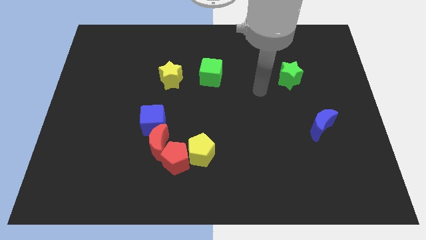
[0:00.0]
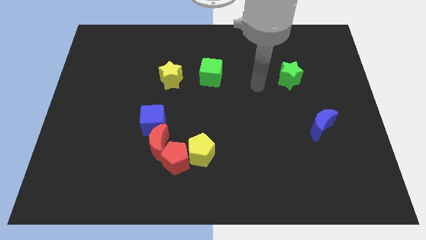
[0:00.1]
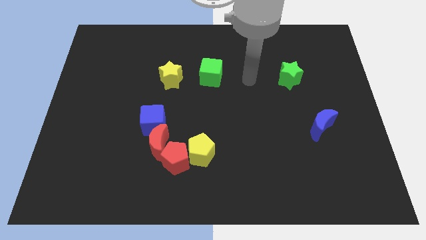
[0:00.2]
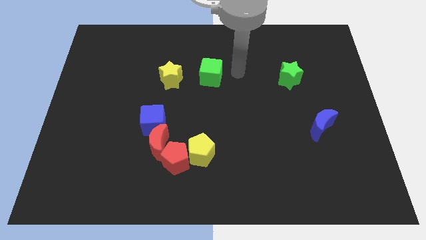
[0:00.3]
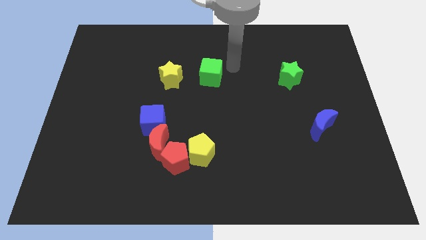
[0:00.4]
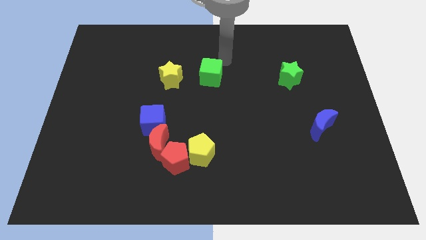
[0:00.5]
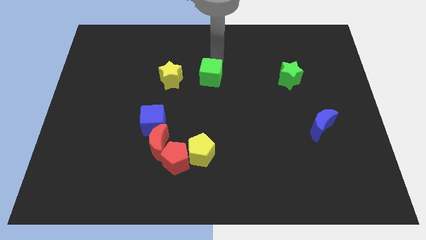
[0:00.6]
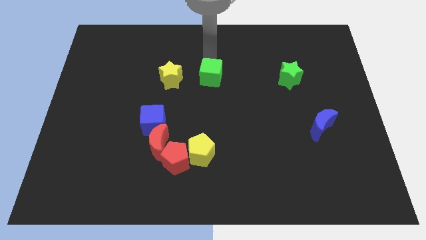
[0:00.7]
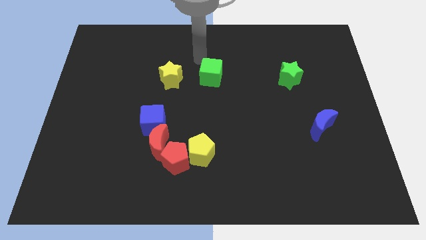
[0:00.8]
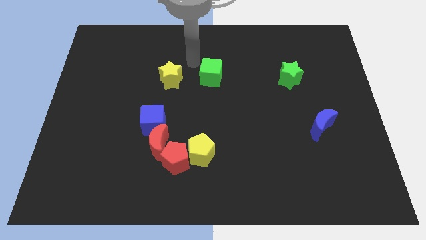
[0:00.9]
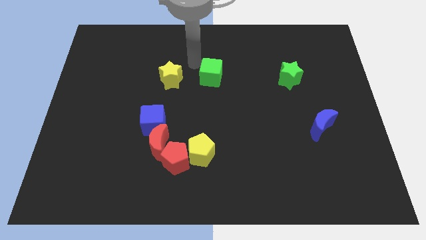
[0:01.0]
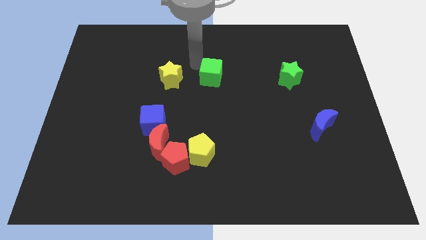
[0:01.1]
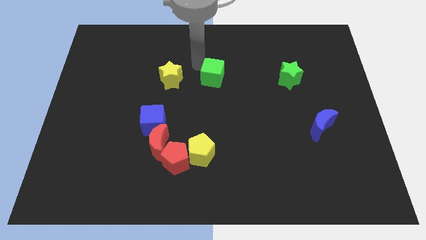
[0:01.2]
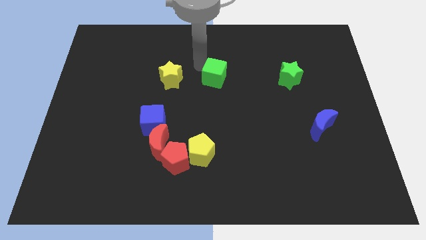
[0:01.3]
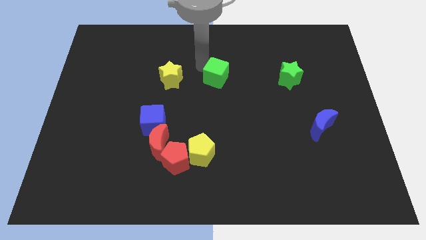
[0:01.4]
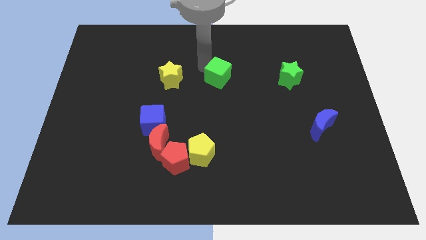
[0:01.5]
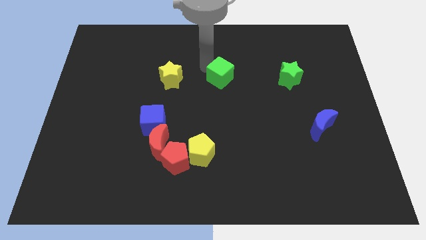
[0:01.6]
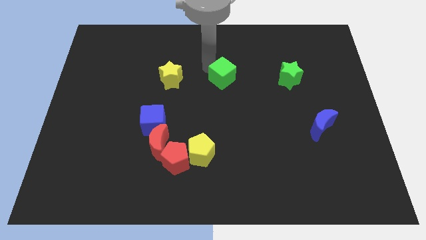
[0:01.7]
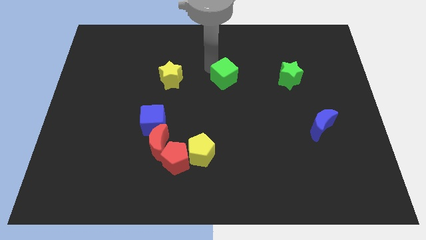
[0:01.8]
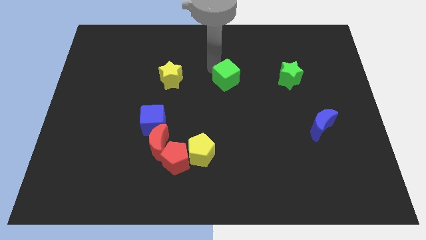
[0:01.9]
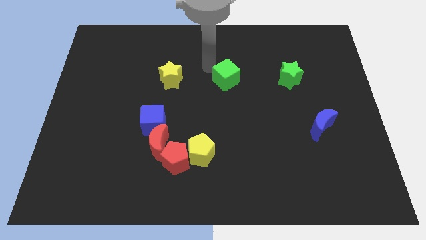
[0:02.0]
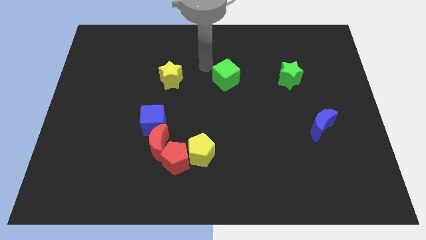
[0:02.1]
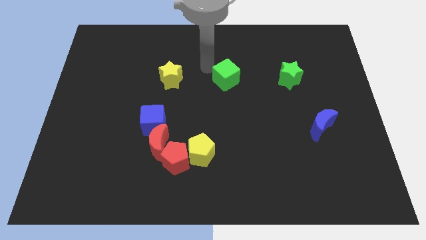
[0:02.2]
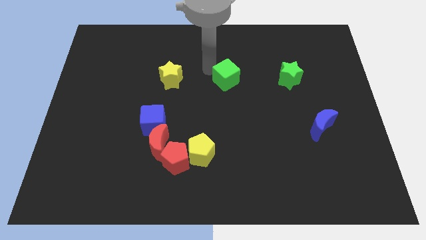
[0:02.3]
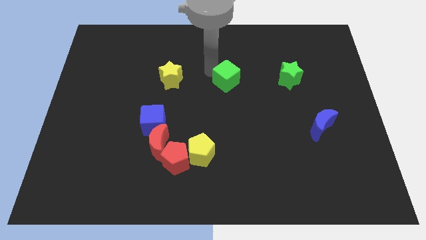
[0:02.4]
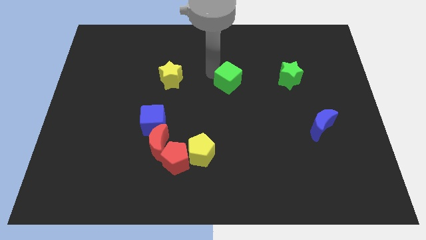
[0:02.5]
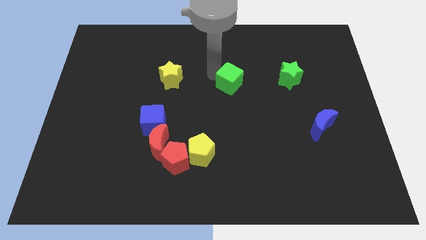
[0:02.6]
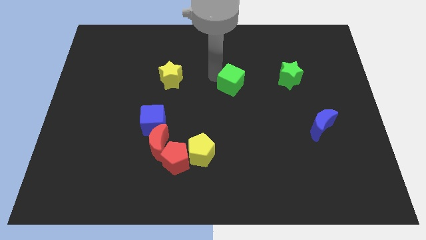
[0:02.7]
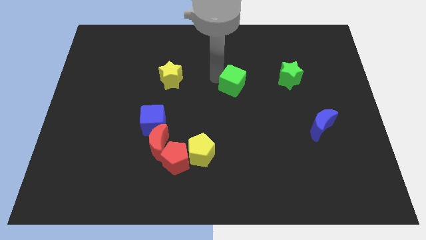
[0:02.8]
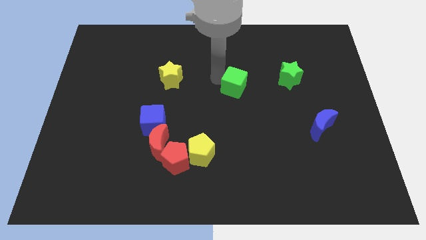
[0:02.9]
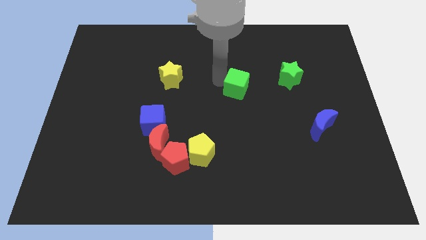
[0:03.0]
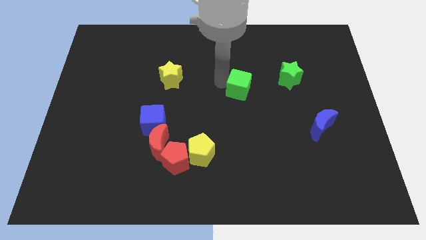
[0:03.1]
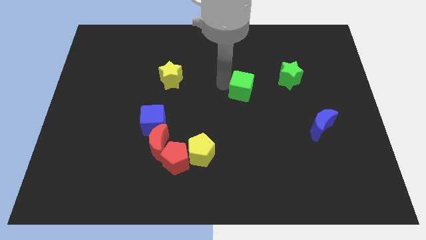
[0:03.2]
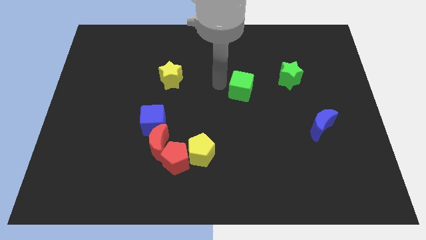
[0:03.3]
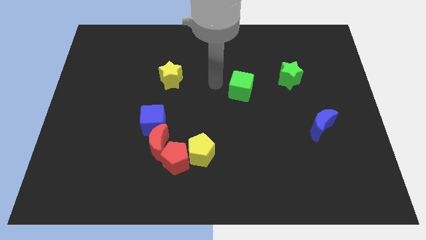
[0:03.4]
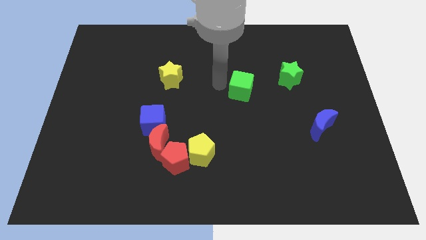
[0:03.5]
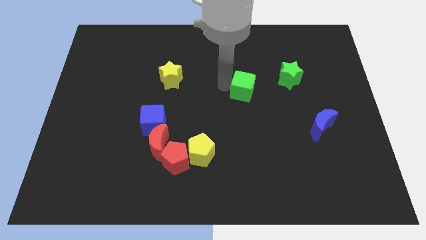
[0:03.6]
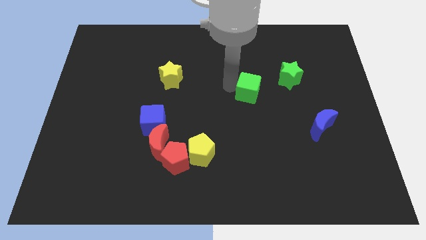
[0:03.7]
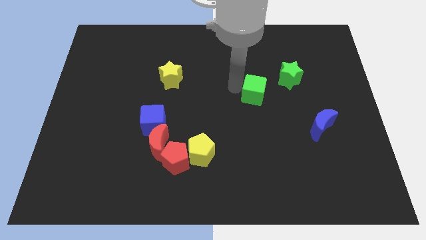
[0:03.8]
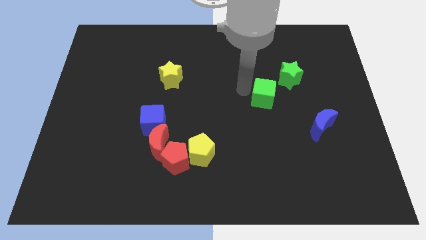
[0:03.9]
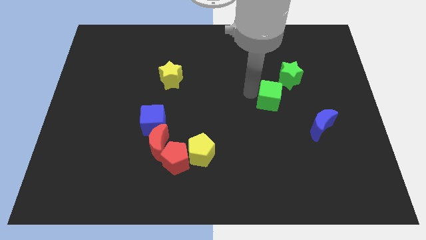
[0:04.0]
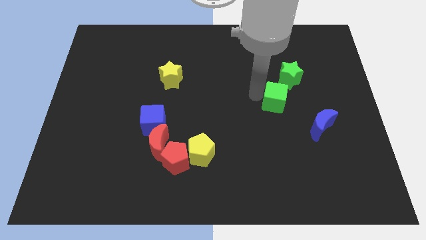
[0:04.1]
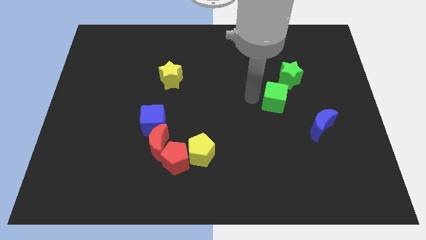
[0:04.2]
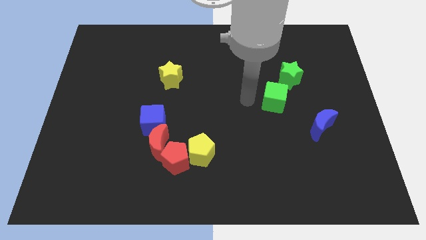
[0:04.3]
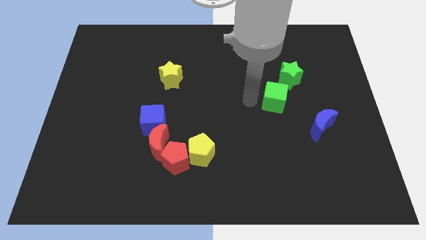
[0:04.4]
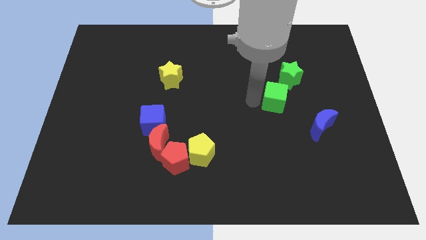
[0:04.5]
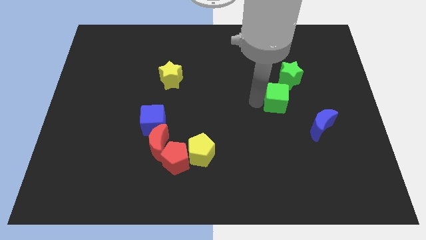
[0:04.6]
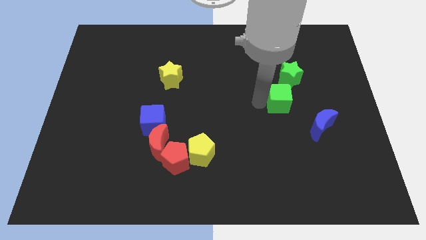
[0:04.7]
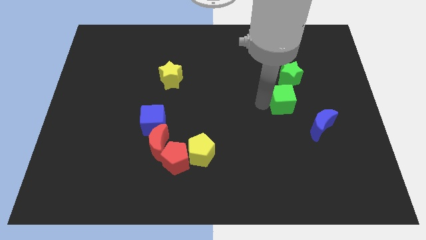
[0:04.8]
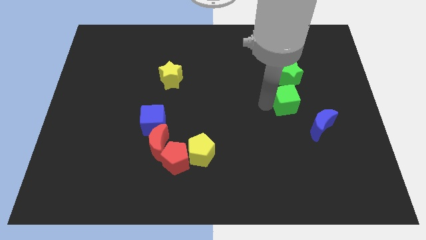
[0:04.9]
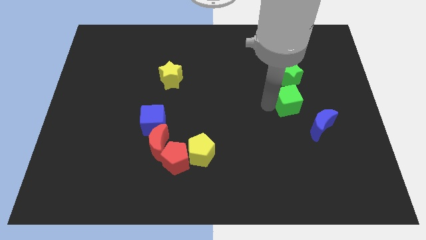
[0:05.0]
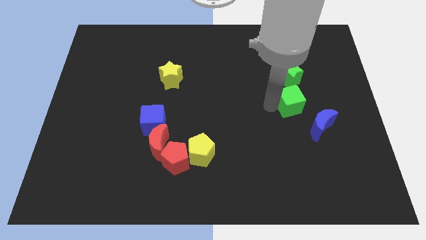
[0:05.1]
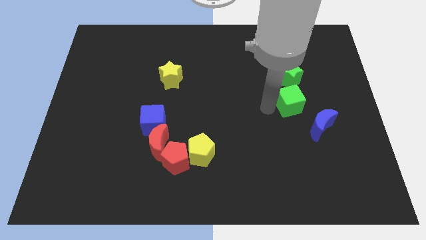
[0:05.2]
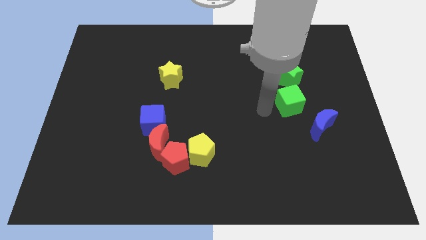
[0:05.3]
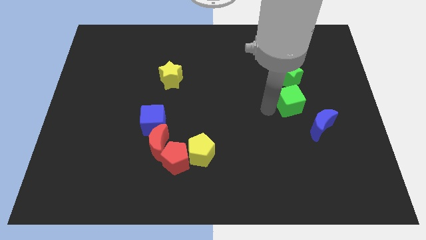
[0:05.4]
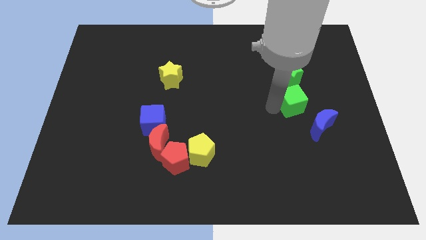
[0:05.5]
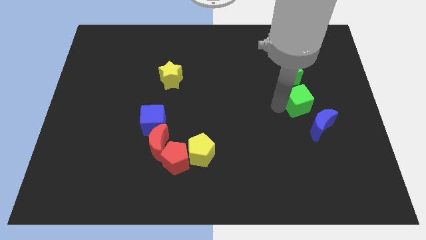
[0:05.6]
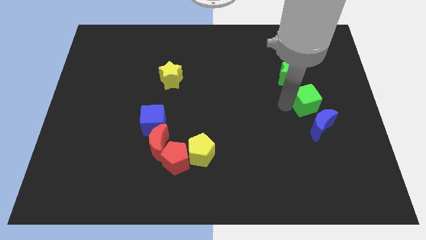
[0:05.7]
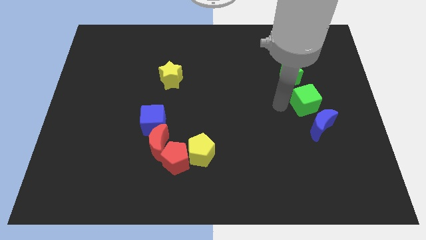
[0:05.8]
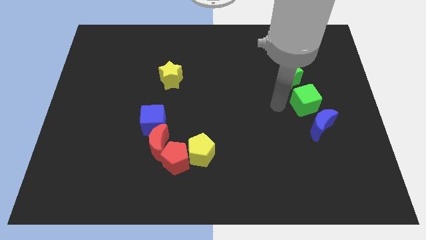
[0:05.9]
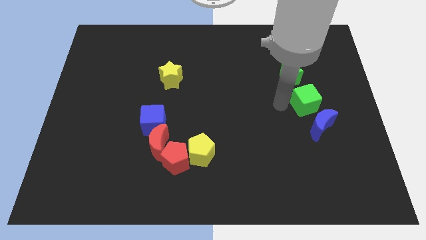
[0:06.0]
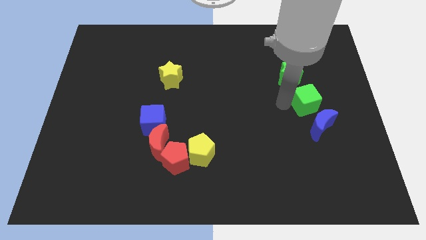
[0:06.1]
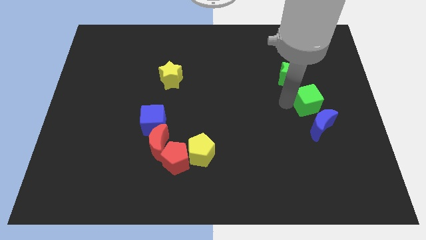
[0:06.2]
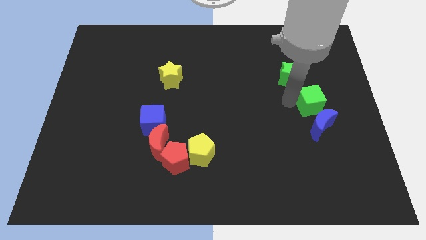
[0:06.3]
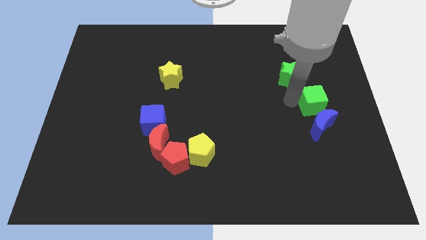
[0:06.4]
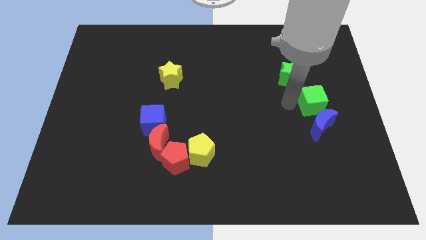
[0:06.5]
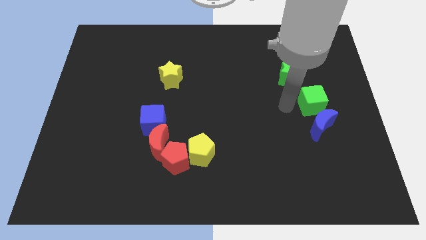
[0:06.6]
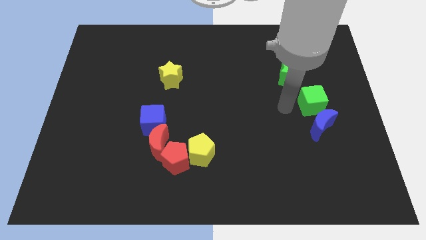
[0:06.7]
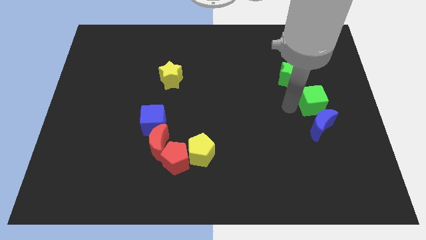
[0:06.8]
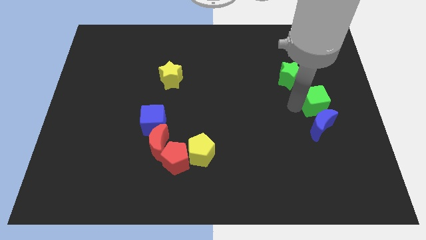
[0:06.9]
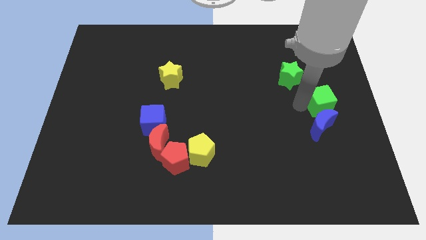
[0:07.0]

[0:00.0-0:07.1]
slide the green cube to the right side
